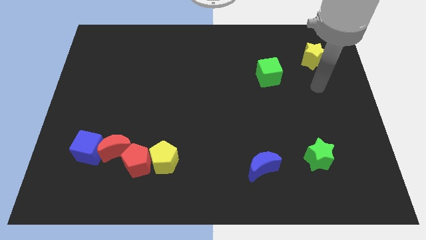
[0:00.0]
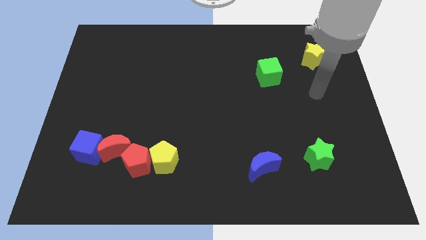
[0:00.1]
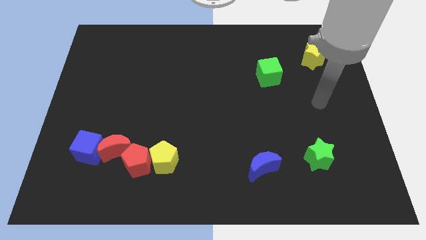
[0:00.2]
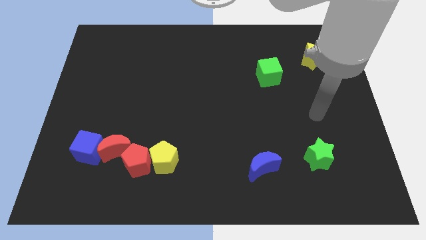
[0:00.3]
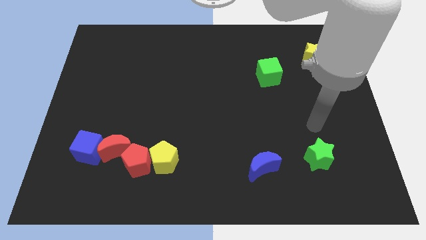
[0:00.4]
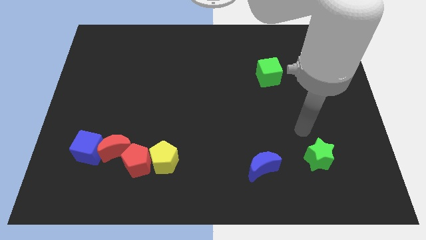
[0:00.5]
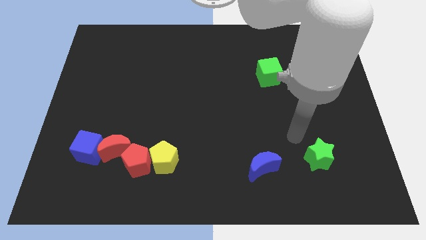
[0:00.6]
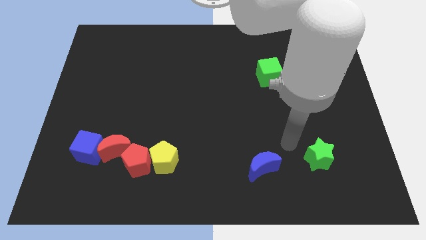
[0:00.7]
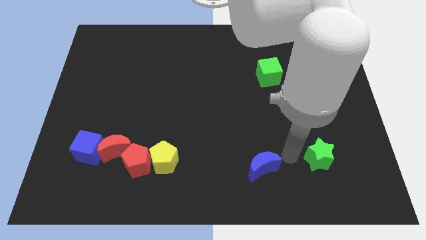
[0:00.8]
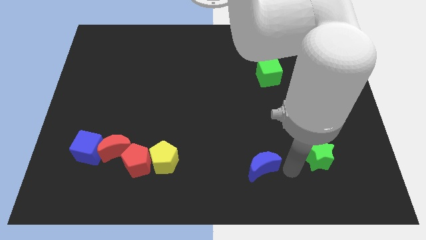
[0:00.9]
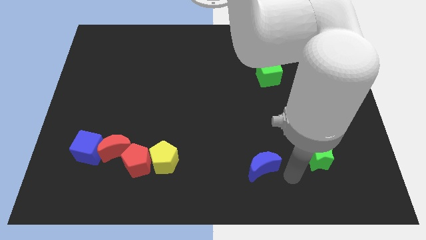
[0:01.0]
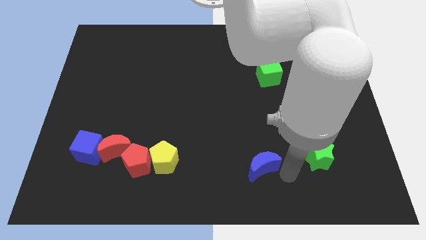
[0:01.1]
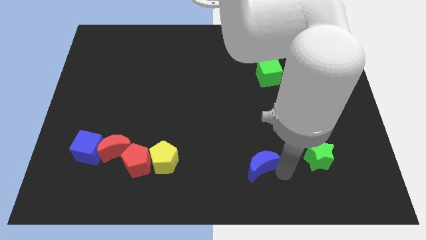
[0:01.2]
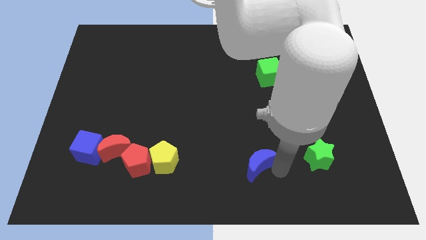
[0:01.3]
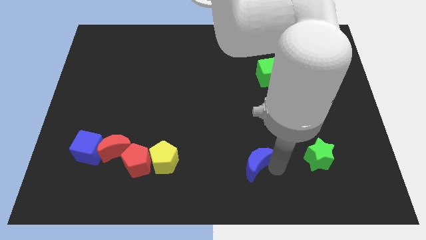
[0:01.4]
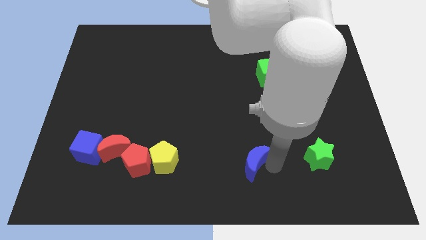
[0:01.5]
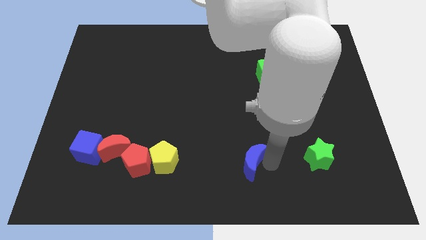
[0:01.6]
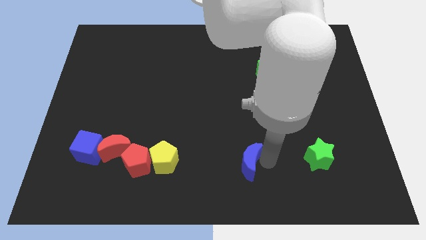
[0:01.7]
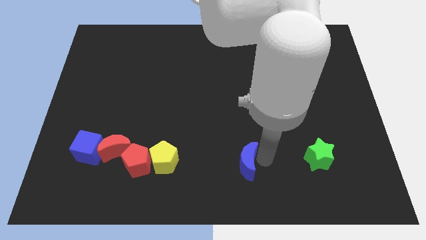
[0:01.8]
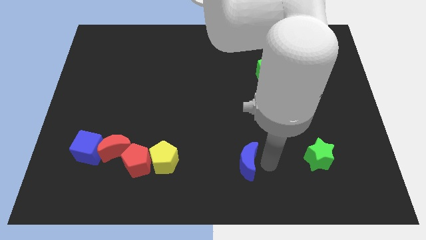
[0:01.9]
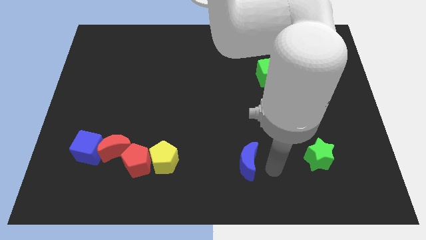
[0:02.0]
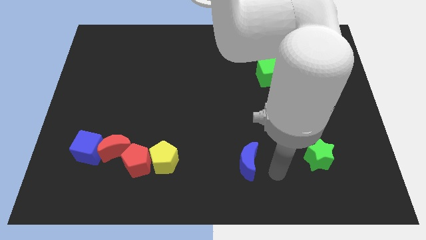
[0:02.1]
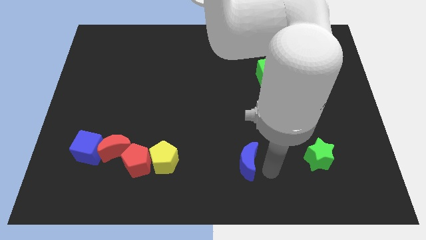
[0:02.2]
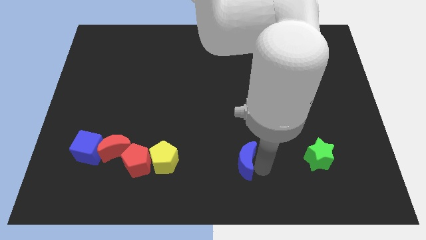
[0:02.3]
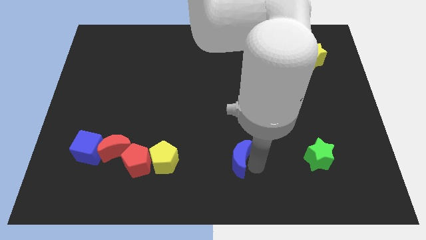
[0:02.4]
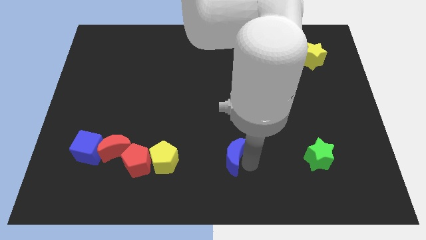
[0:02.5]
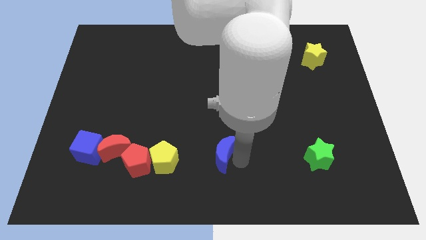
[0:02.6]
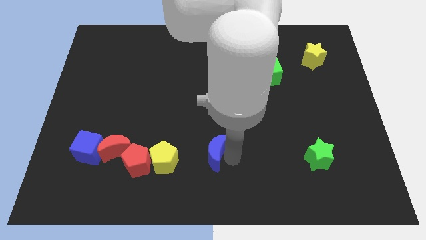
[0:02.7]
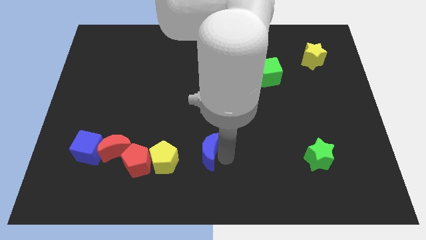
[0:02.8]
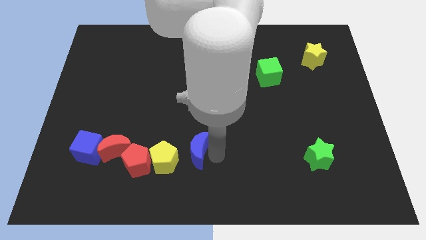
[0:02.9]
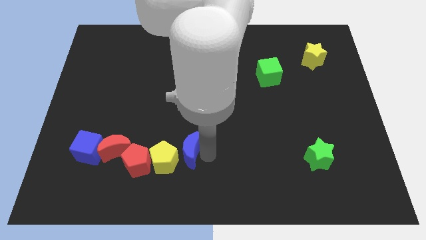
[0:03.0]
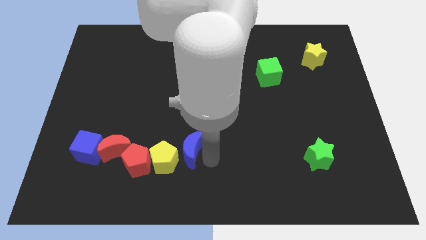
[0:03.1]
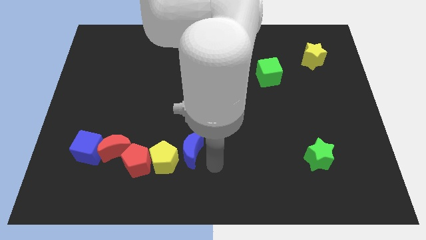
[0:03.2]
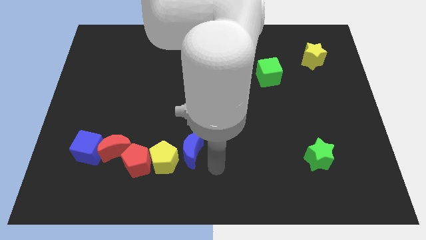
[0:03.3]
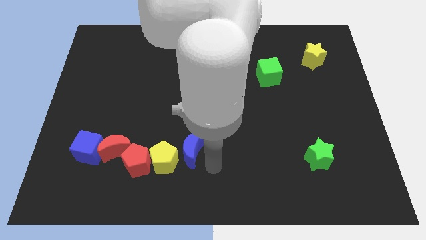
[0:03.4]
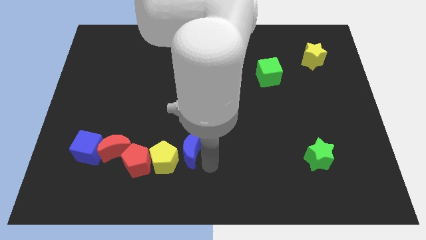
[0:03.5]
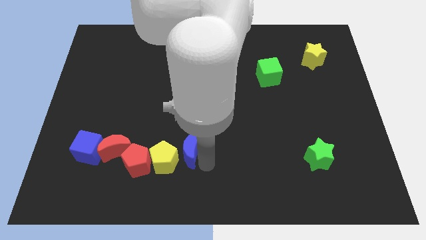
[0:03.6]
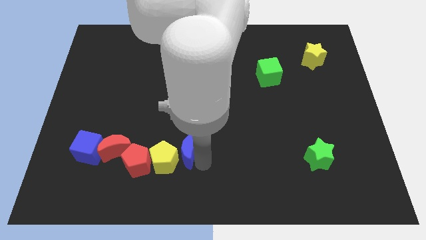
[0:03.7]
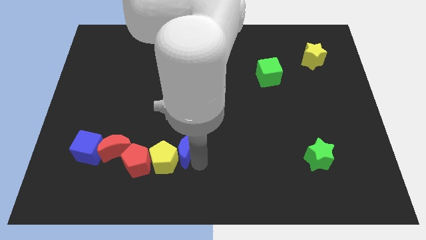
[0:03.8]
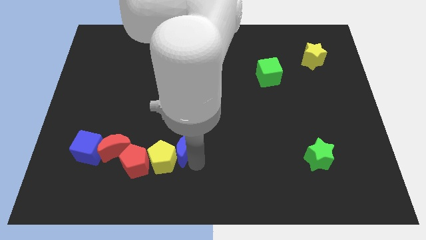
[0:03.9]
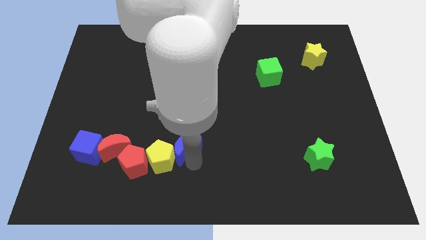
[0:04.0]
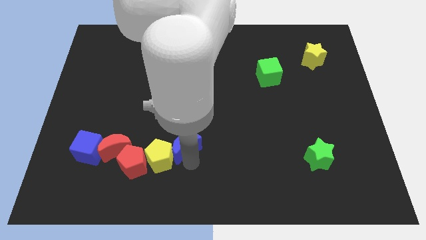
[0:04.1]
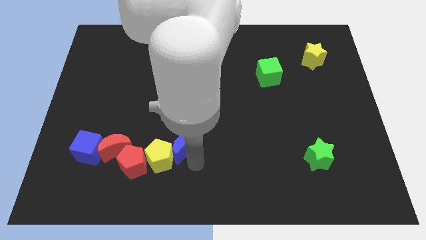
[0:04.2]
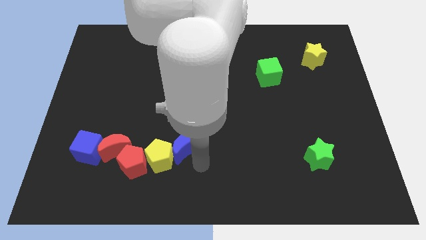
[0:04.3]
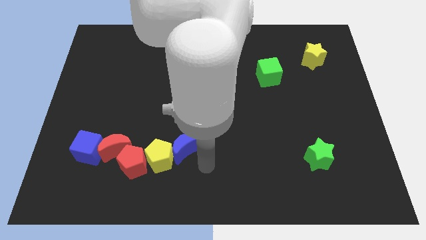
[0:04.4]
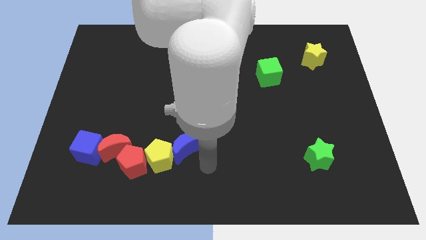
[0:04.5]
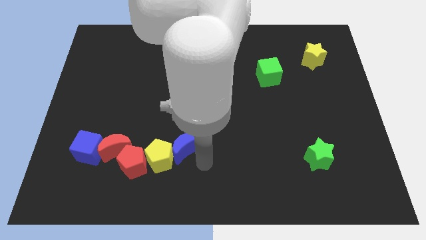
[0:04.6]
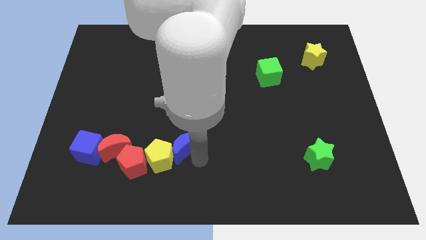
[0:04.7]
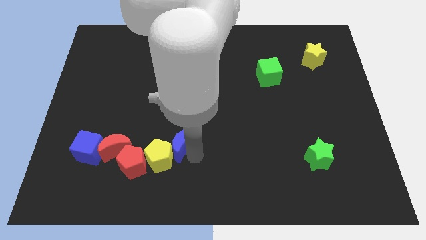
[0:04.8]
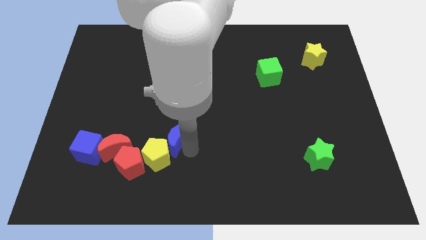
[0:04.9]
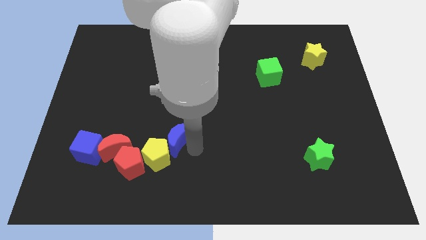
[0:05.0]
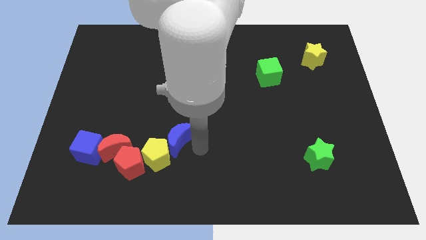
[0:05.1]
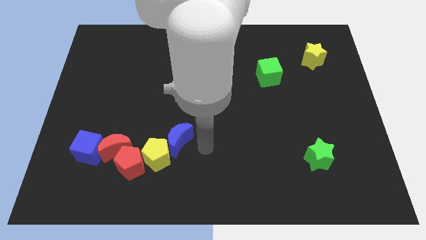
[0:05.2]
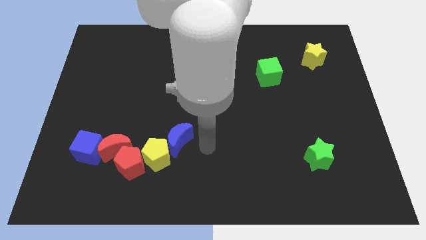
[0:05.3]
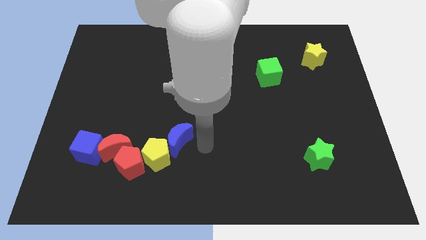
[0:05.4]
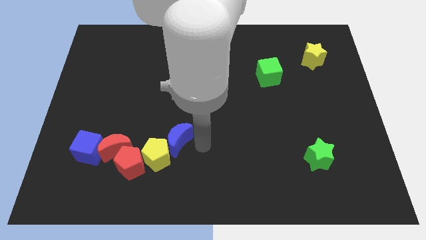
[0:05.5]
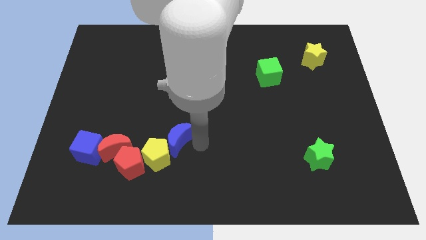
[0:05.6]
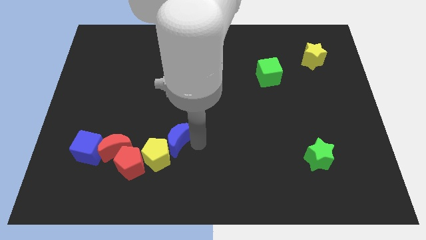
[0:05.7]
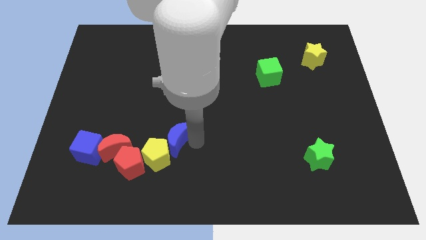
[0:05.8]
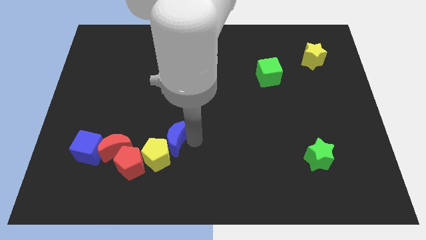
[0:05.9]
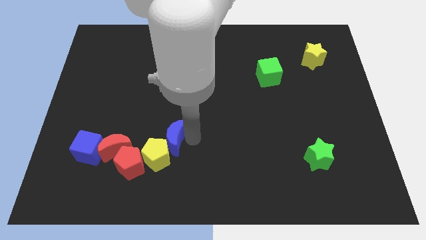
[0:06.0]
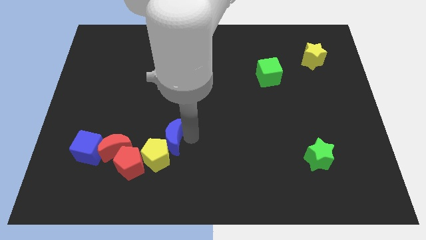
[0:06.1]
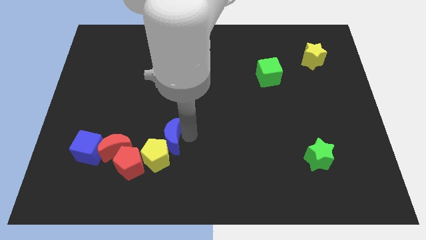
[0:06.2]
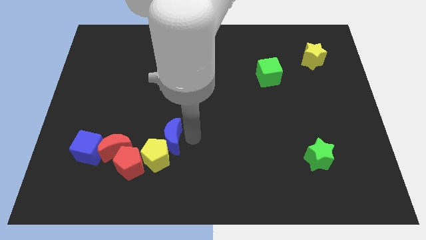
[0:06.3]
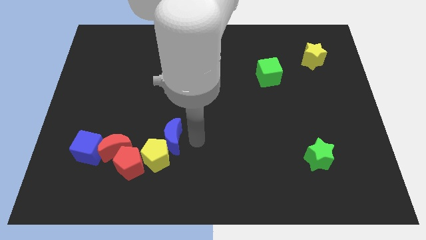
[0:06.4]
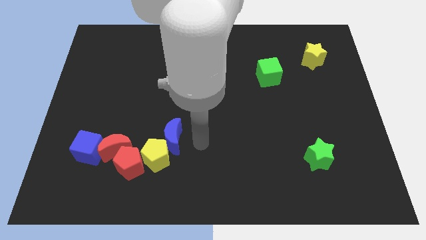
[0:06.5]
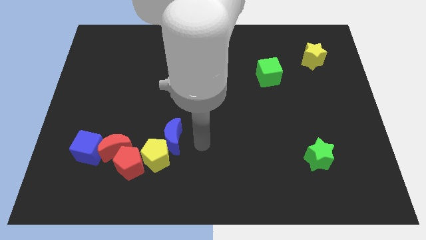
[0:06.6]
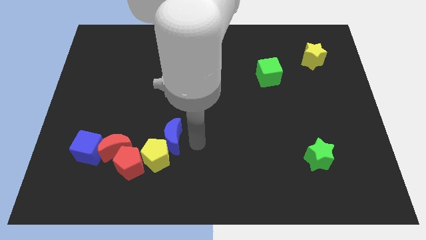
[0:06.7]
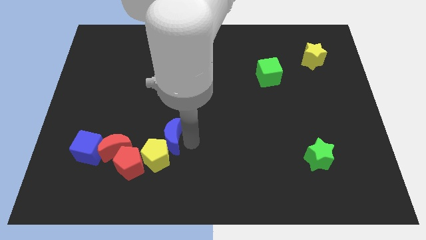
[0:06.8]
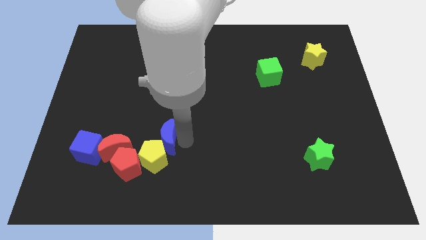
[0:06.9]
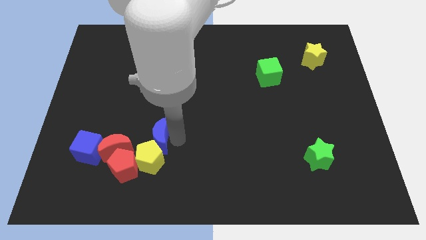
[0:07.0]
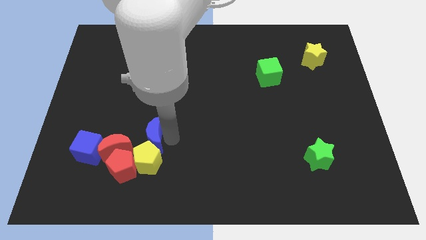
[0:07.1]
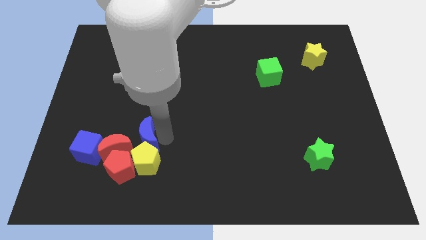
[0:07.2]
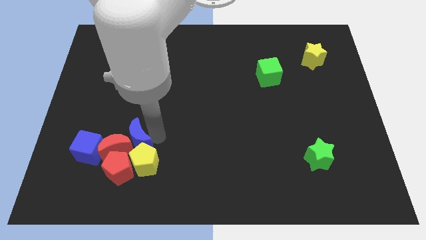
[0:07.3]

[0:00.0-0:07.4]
put the blue moon towards the red moon
